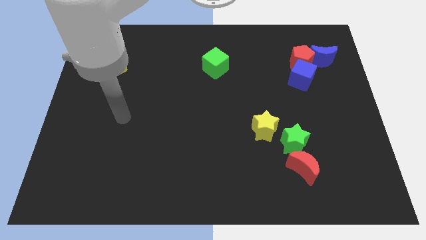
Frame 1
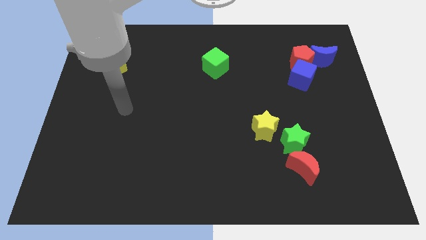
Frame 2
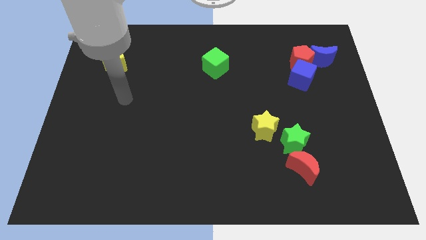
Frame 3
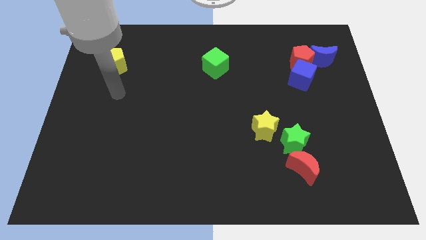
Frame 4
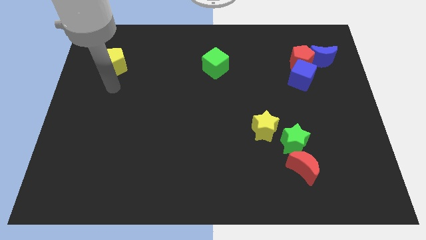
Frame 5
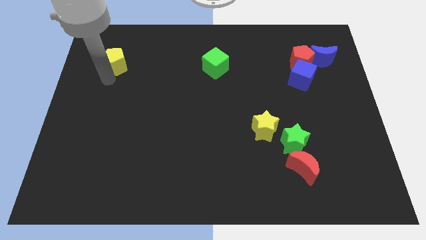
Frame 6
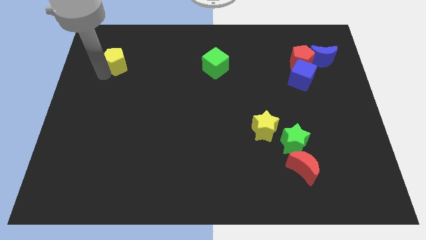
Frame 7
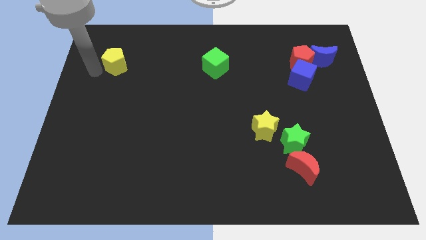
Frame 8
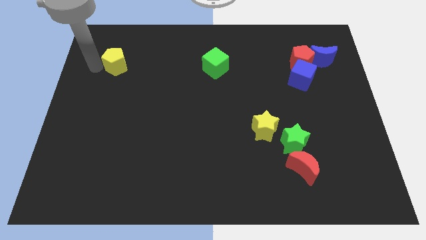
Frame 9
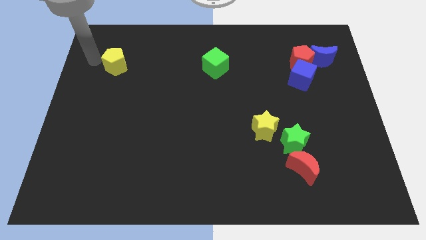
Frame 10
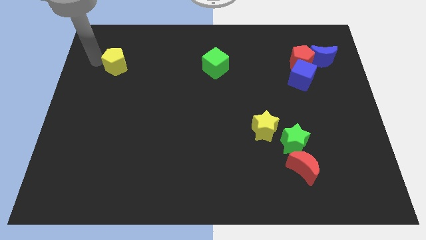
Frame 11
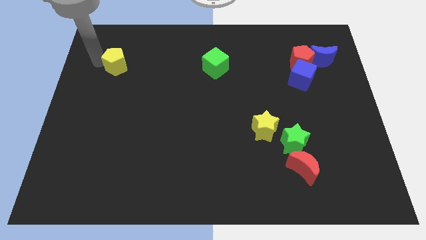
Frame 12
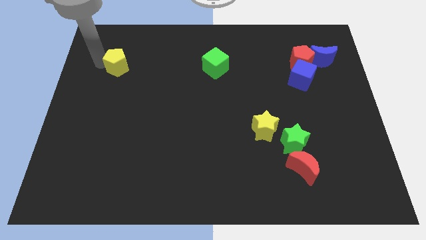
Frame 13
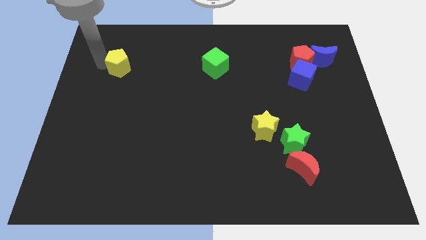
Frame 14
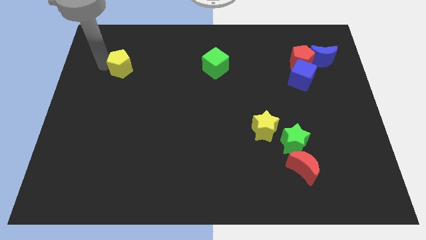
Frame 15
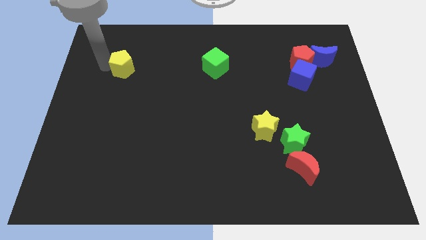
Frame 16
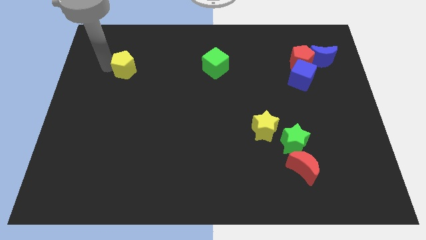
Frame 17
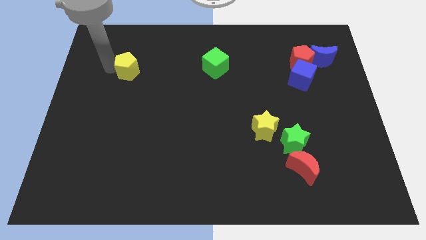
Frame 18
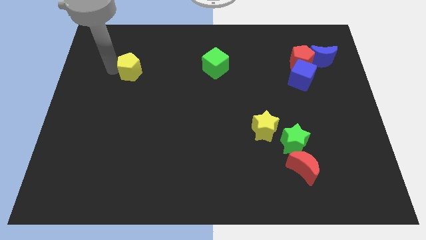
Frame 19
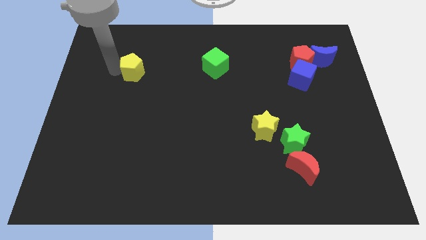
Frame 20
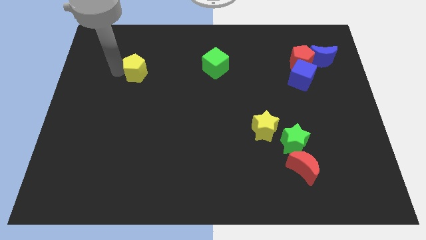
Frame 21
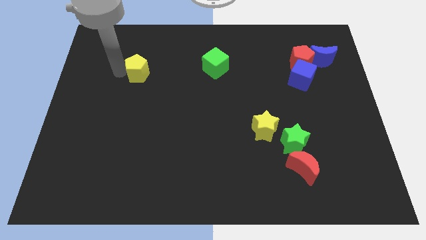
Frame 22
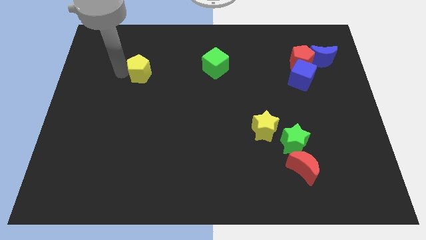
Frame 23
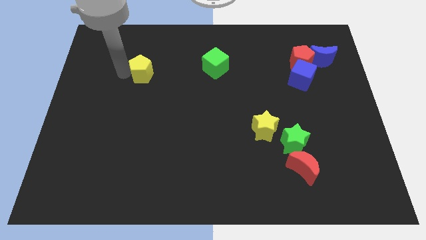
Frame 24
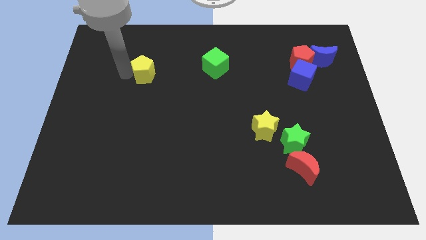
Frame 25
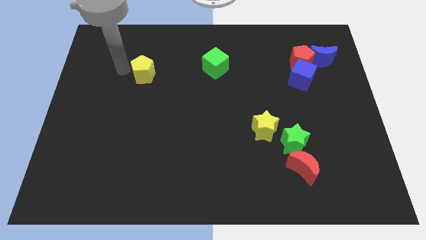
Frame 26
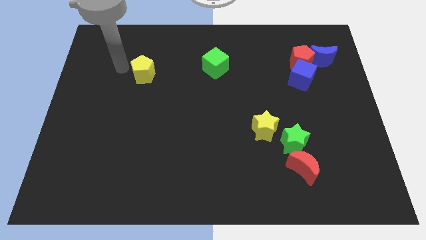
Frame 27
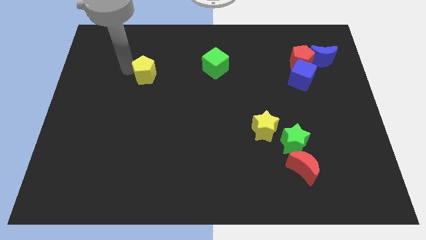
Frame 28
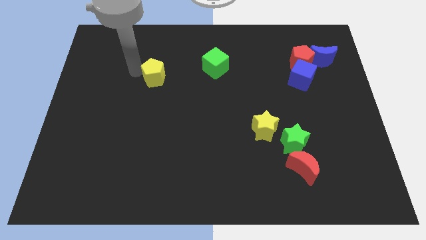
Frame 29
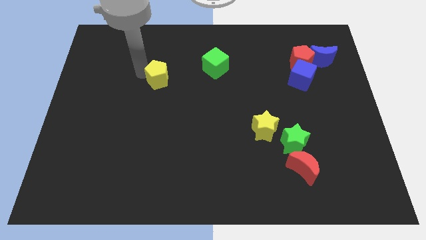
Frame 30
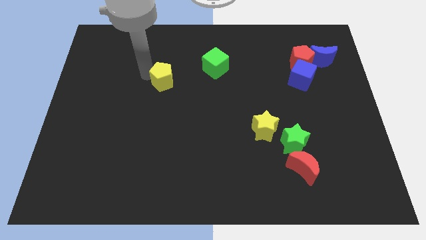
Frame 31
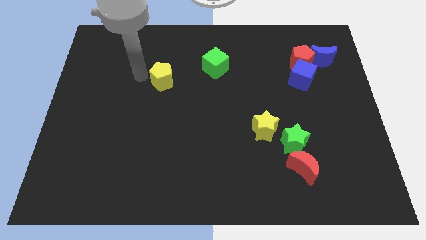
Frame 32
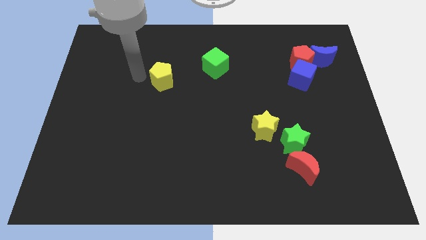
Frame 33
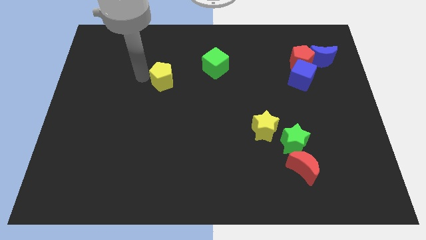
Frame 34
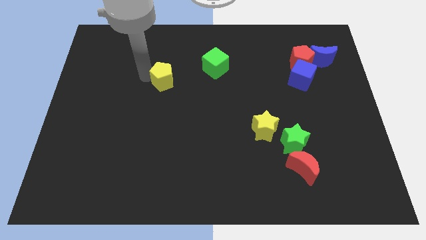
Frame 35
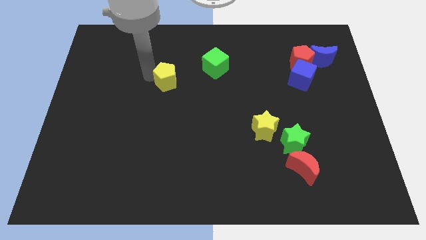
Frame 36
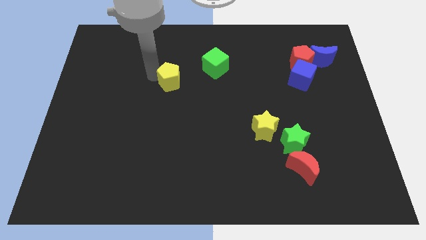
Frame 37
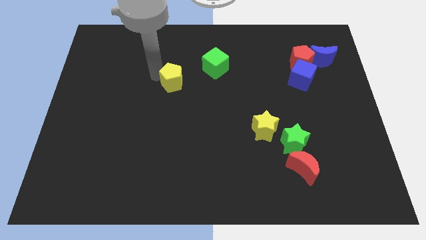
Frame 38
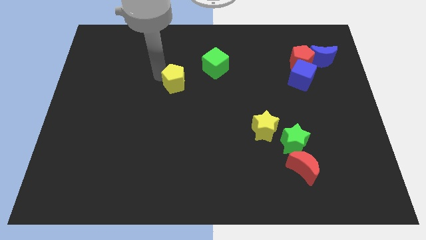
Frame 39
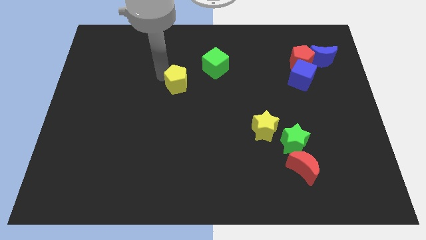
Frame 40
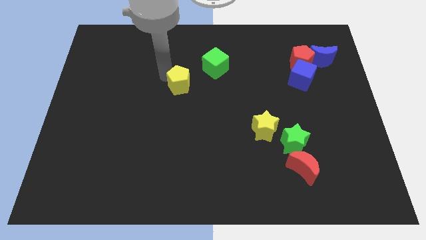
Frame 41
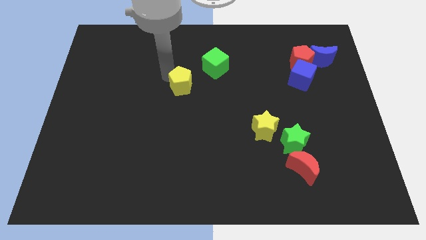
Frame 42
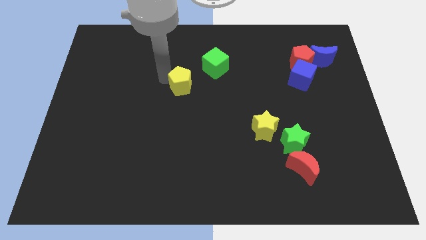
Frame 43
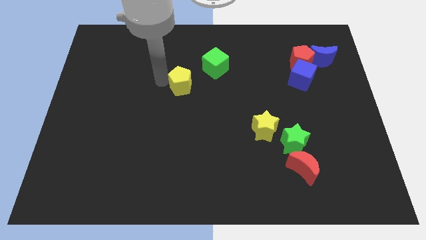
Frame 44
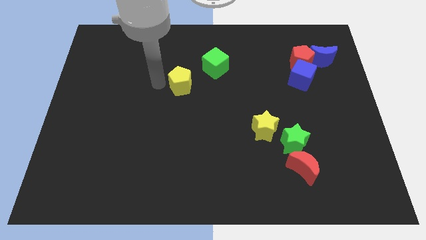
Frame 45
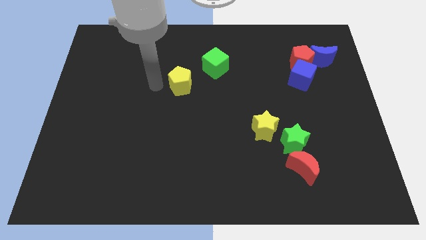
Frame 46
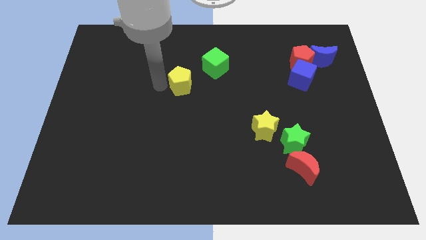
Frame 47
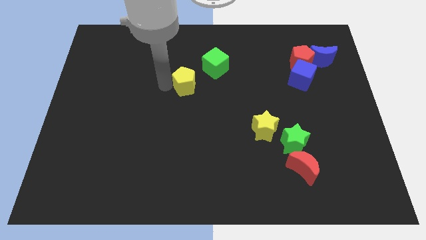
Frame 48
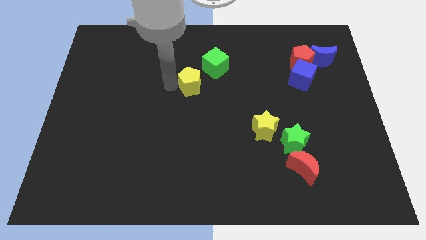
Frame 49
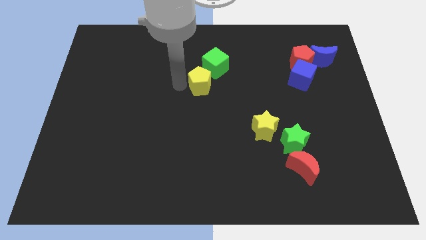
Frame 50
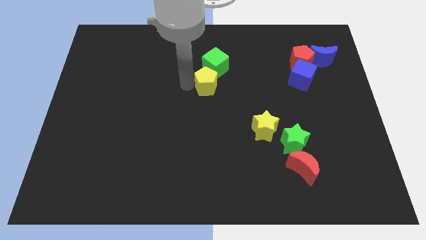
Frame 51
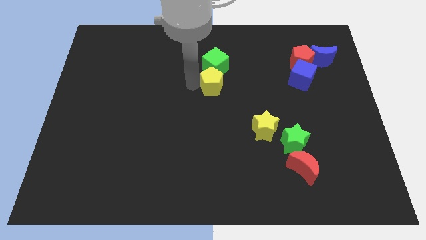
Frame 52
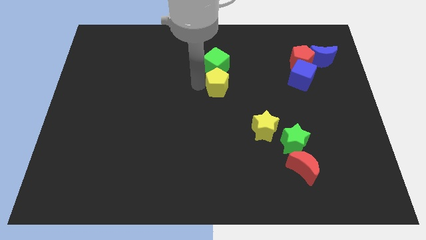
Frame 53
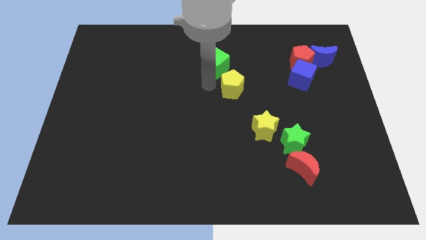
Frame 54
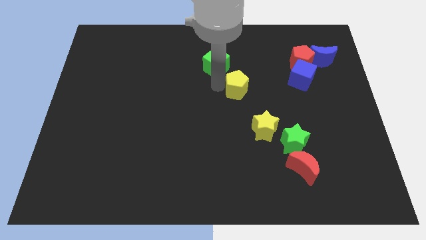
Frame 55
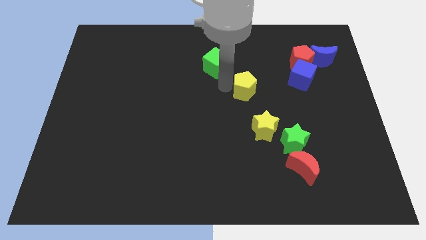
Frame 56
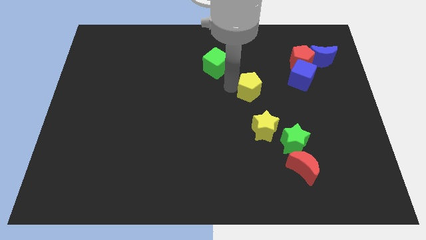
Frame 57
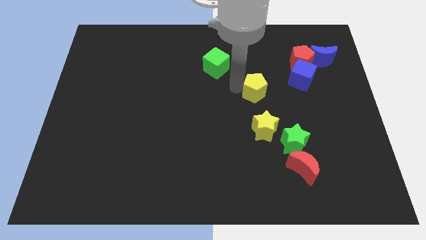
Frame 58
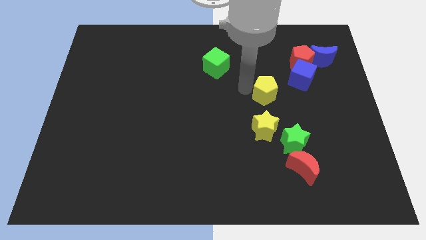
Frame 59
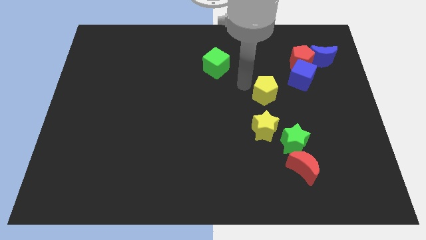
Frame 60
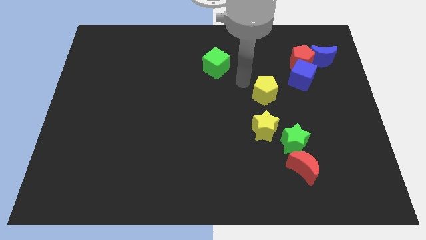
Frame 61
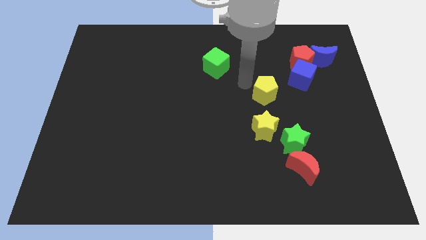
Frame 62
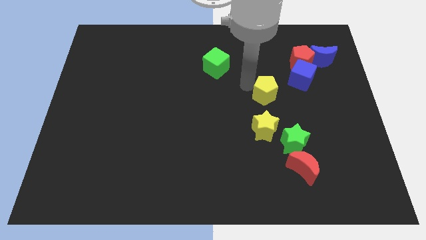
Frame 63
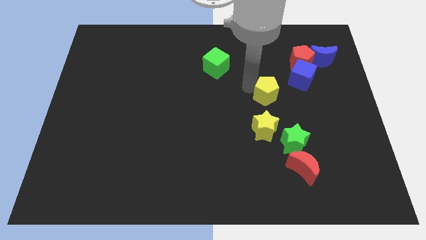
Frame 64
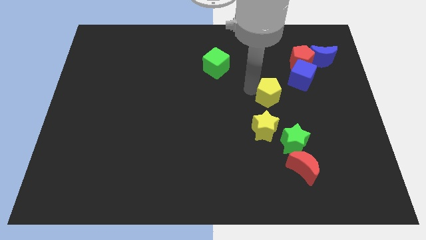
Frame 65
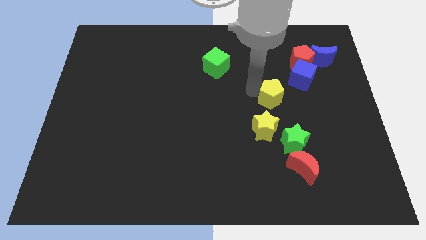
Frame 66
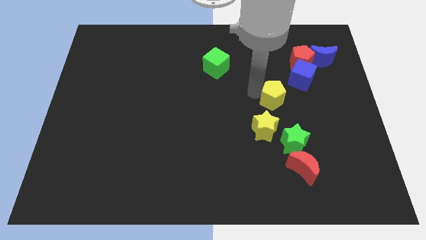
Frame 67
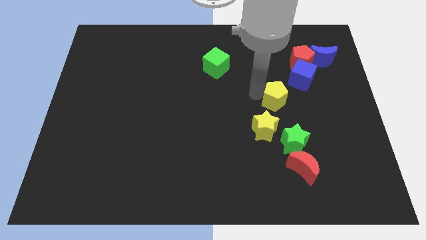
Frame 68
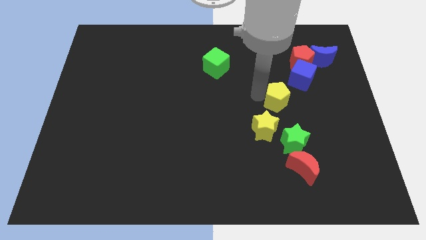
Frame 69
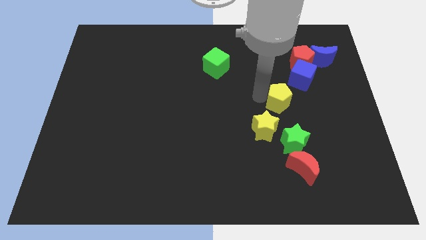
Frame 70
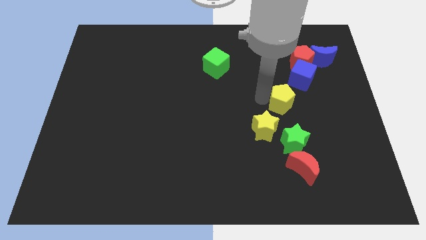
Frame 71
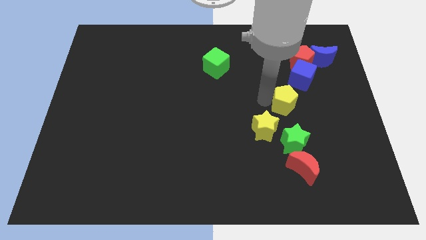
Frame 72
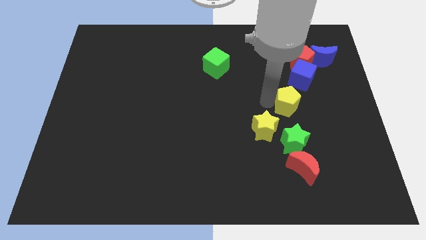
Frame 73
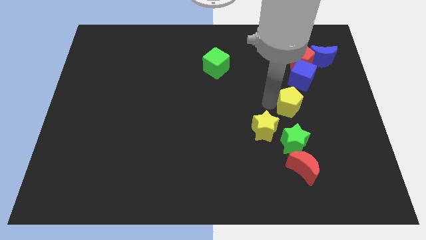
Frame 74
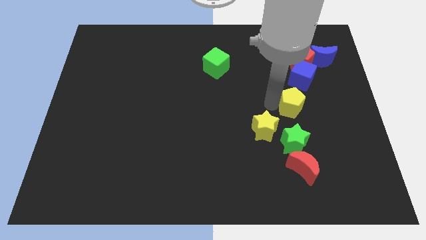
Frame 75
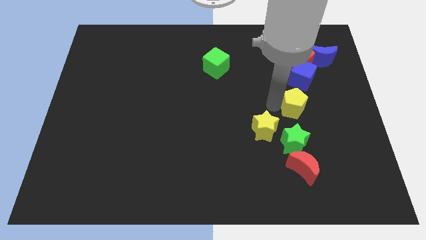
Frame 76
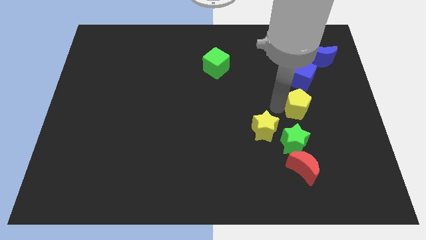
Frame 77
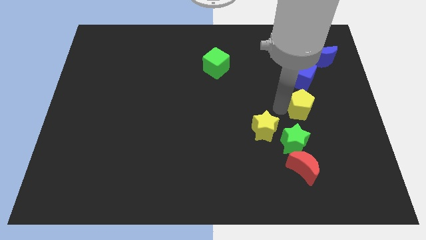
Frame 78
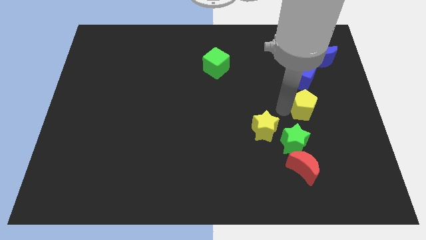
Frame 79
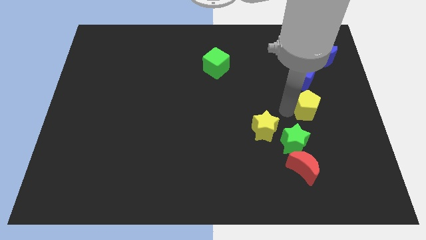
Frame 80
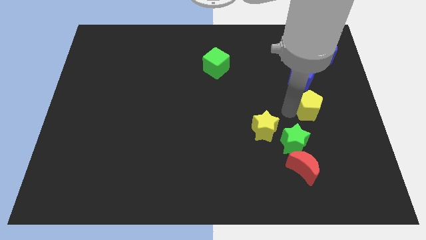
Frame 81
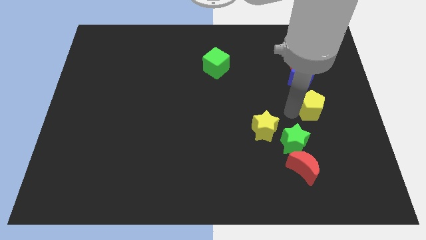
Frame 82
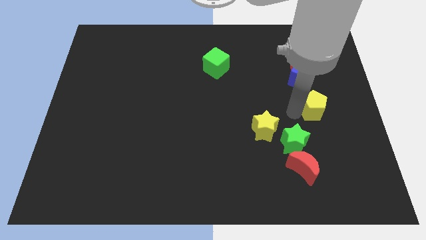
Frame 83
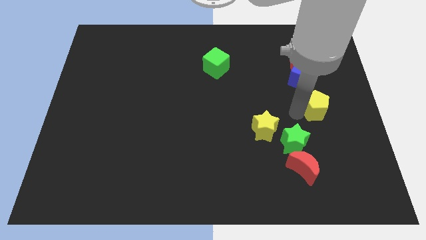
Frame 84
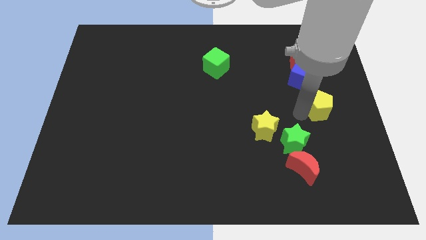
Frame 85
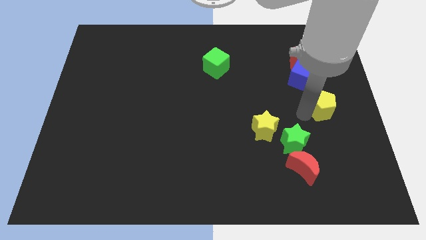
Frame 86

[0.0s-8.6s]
put the yellow pentagon to the right side
